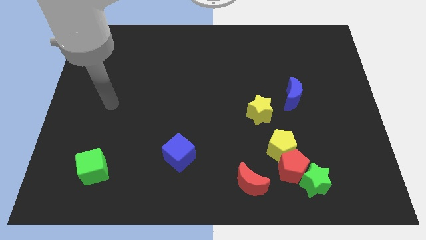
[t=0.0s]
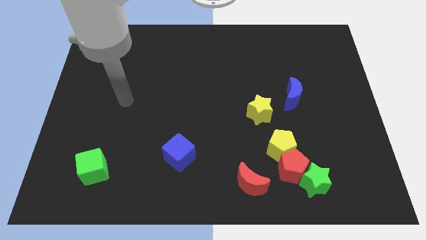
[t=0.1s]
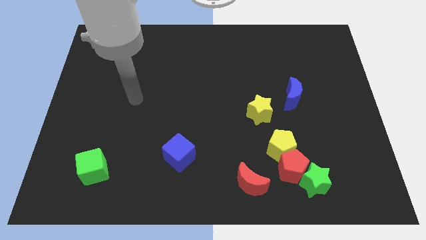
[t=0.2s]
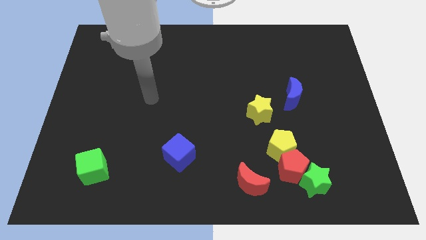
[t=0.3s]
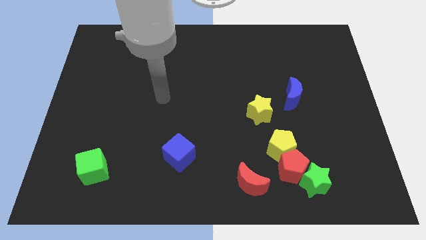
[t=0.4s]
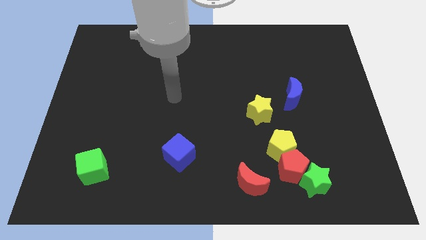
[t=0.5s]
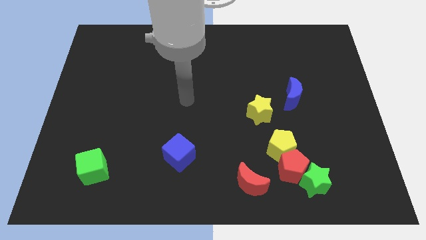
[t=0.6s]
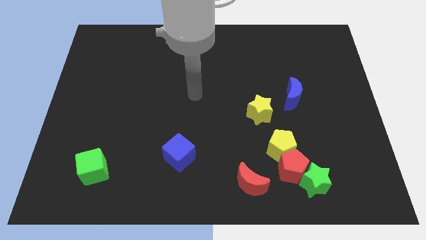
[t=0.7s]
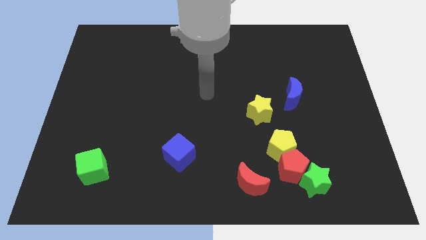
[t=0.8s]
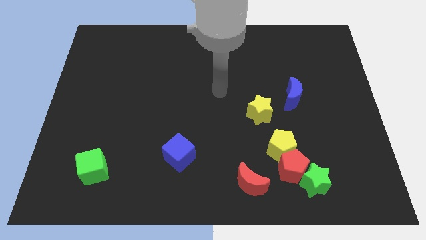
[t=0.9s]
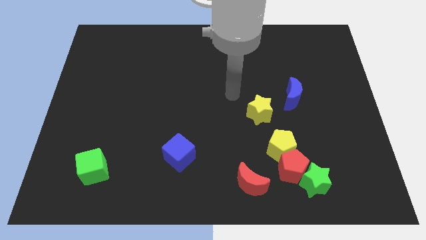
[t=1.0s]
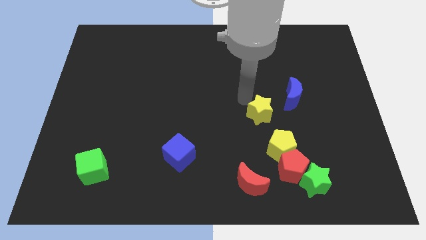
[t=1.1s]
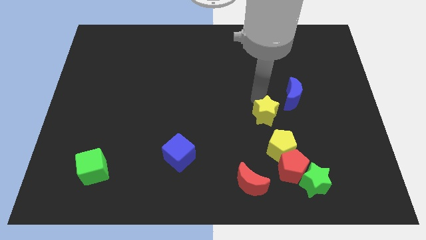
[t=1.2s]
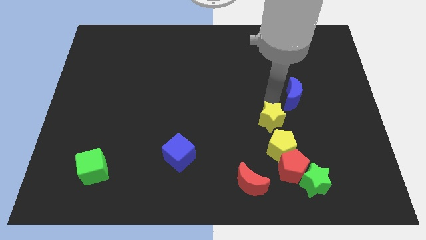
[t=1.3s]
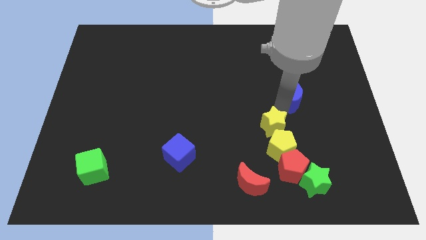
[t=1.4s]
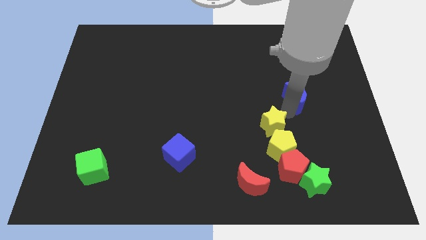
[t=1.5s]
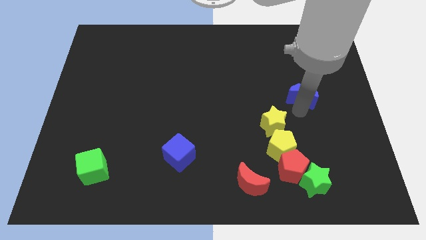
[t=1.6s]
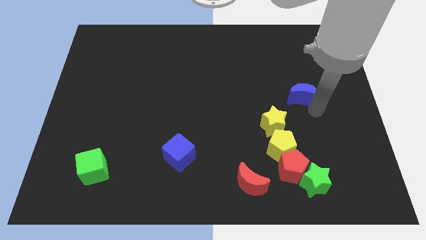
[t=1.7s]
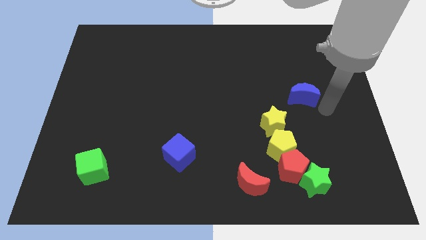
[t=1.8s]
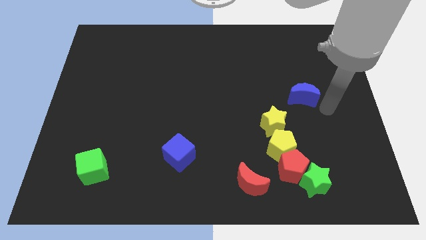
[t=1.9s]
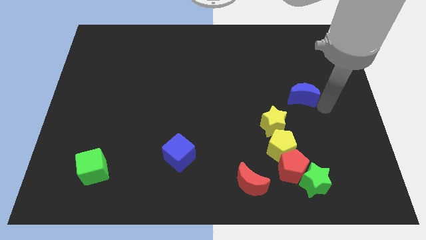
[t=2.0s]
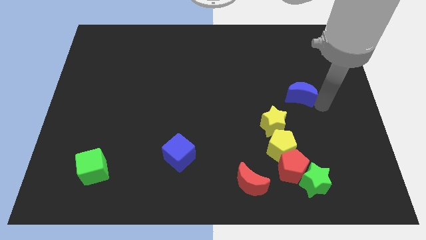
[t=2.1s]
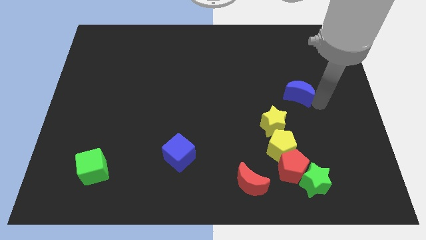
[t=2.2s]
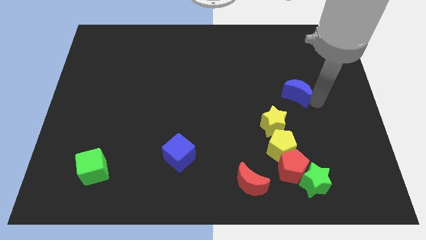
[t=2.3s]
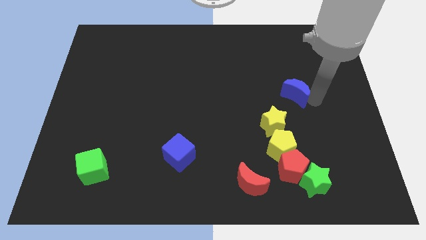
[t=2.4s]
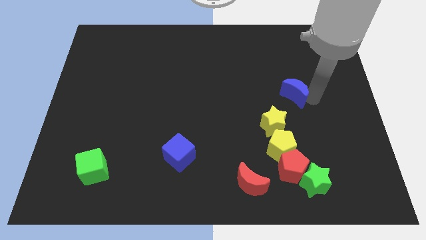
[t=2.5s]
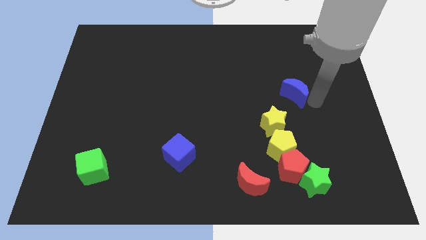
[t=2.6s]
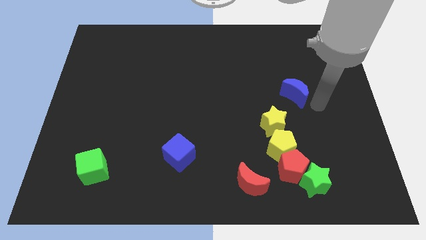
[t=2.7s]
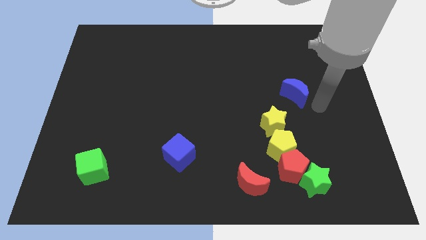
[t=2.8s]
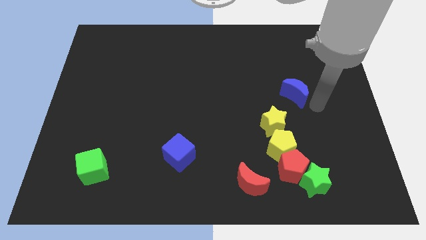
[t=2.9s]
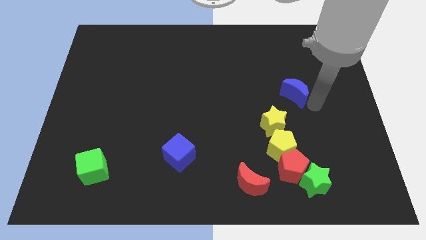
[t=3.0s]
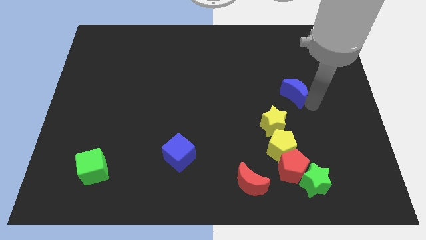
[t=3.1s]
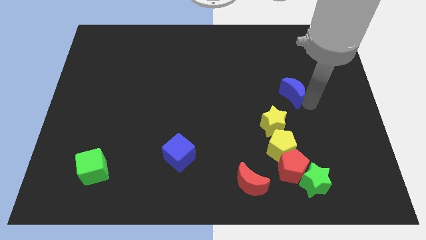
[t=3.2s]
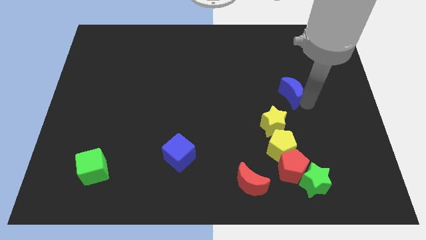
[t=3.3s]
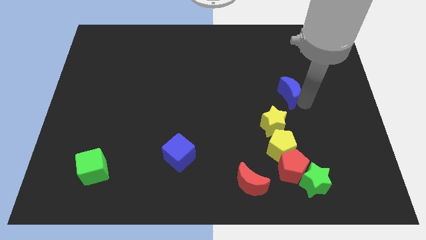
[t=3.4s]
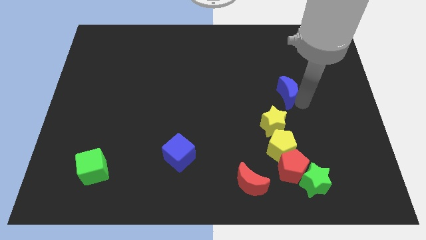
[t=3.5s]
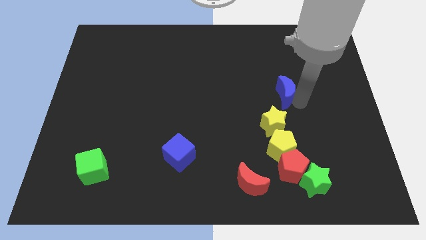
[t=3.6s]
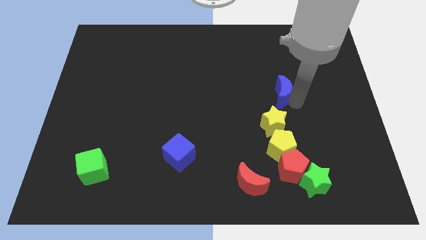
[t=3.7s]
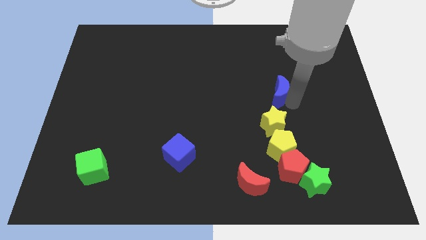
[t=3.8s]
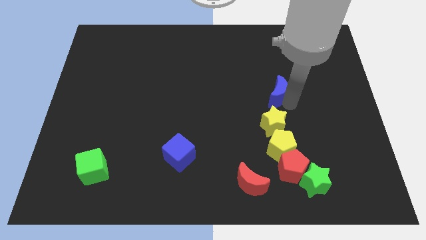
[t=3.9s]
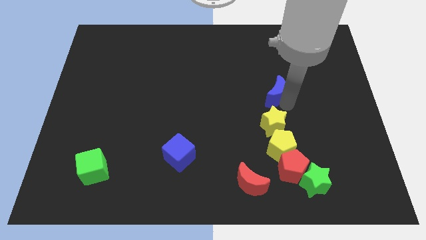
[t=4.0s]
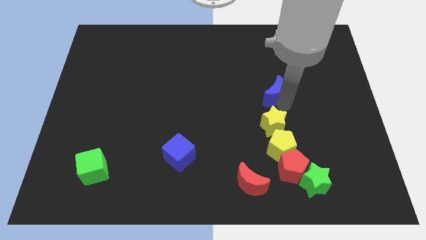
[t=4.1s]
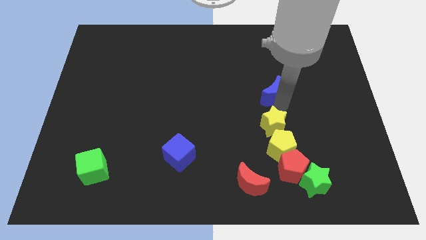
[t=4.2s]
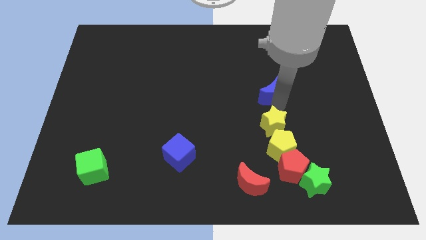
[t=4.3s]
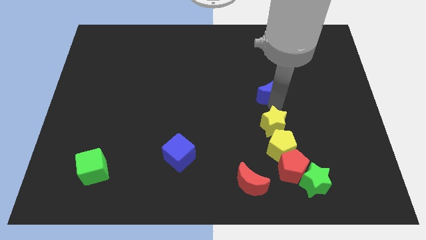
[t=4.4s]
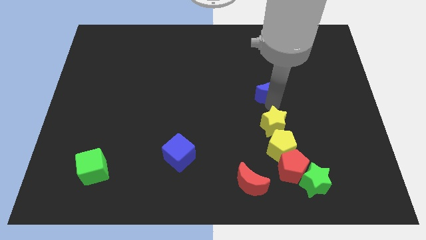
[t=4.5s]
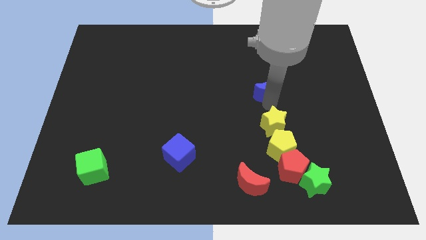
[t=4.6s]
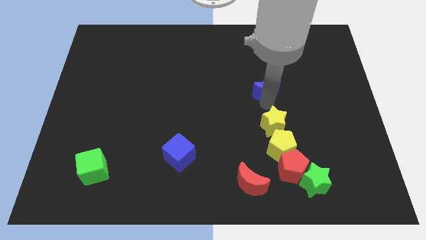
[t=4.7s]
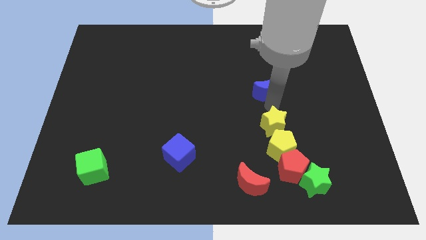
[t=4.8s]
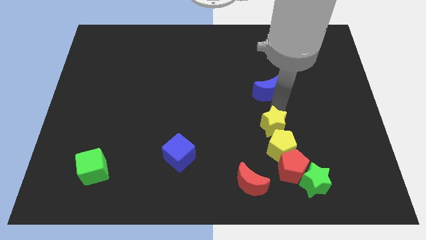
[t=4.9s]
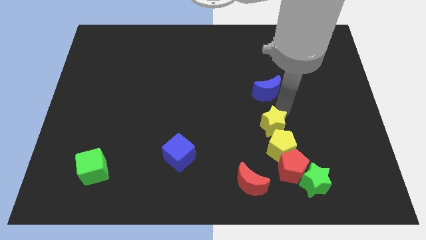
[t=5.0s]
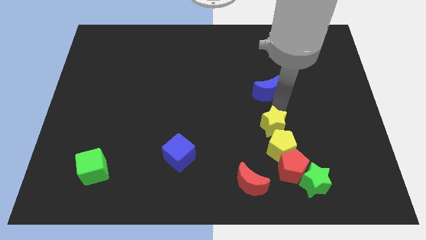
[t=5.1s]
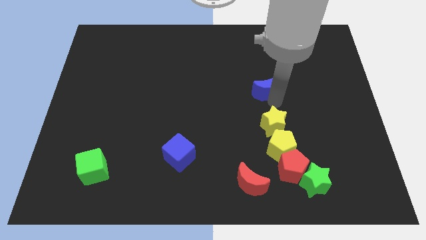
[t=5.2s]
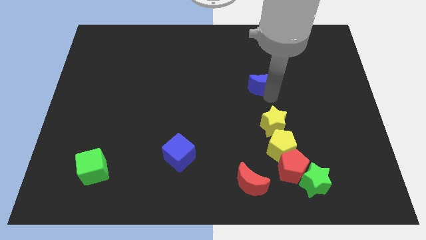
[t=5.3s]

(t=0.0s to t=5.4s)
push the blue moon slightly up and then left

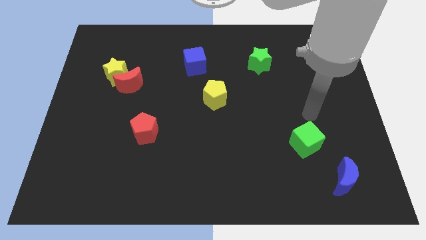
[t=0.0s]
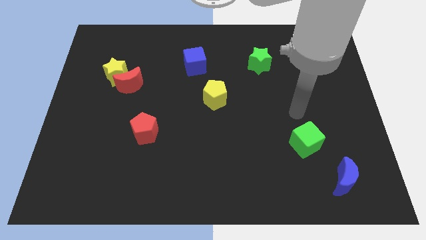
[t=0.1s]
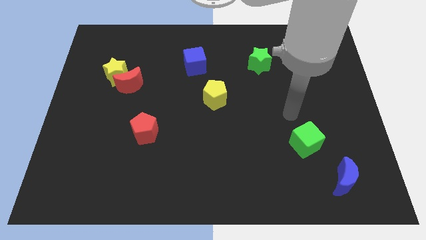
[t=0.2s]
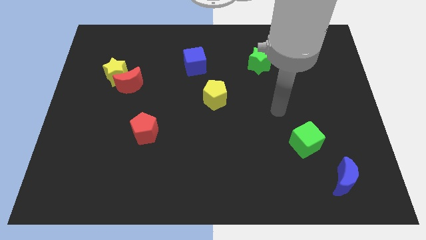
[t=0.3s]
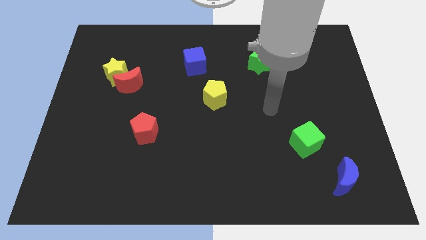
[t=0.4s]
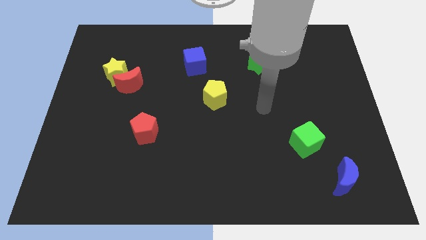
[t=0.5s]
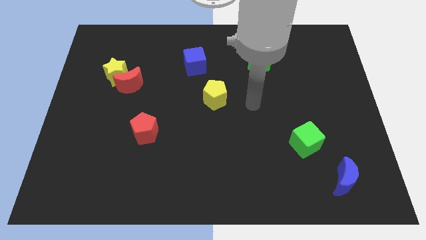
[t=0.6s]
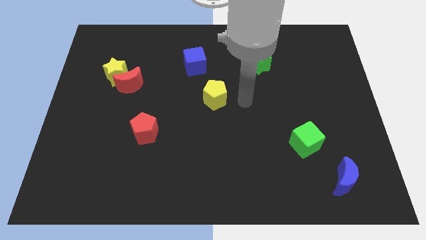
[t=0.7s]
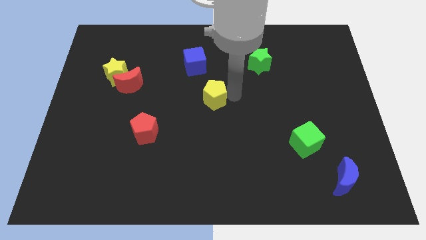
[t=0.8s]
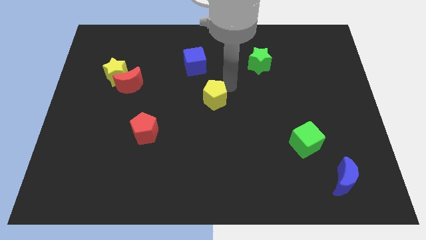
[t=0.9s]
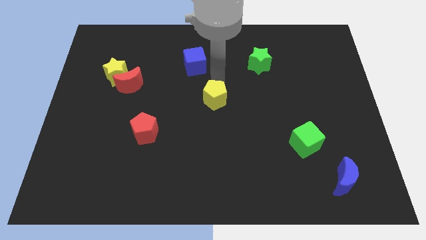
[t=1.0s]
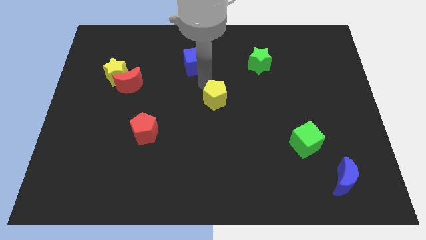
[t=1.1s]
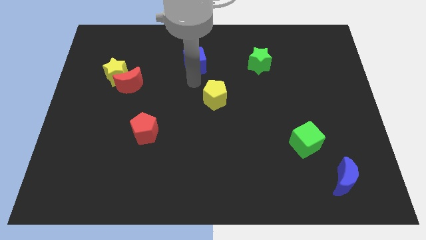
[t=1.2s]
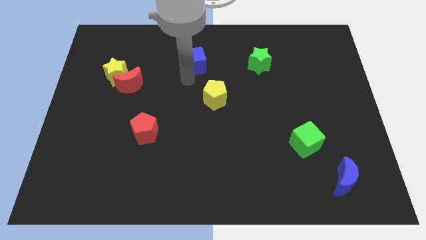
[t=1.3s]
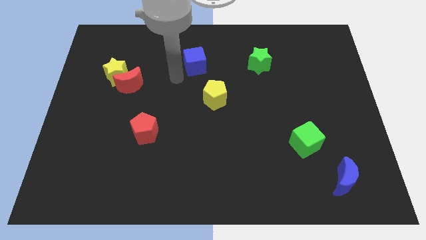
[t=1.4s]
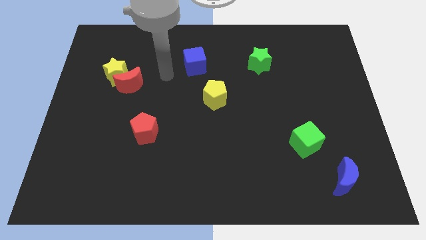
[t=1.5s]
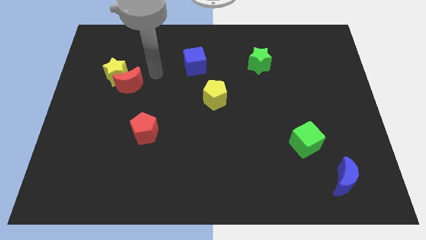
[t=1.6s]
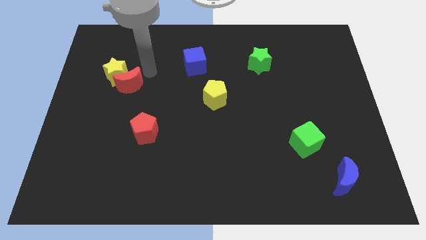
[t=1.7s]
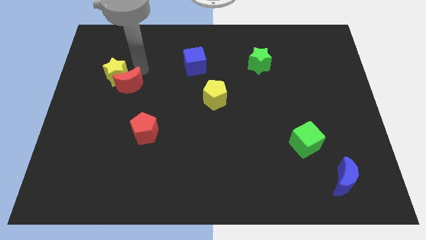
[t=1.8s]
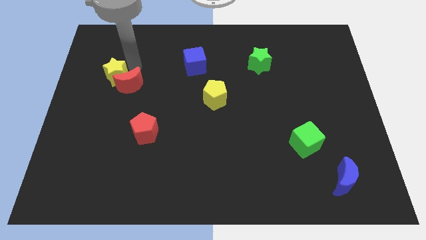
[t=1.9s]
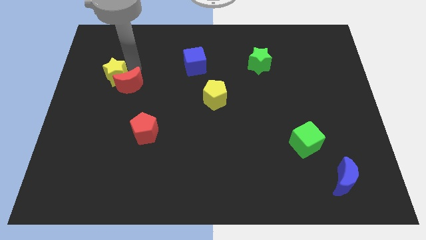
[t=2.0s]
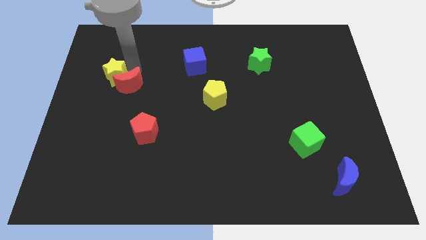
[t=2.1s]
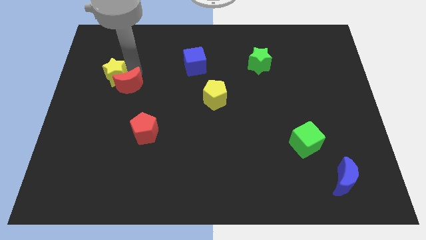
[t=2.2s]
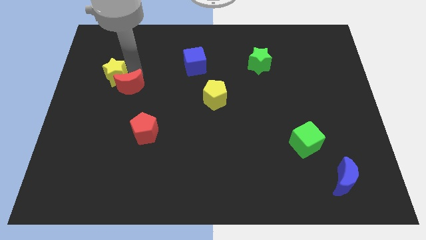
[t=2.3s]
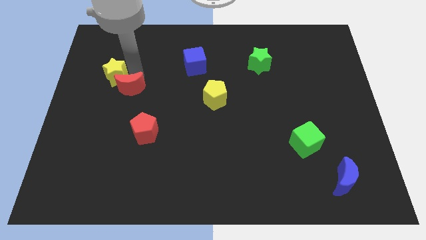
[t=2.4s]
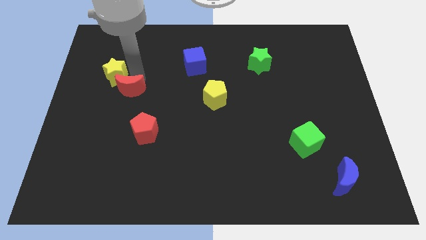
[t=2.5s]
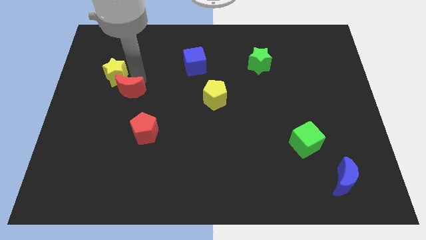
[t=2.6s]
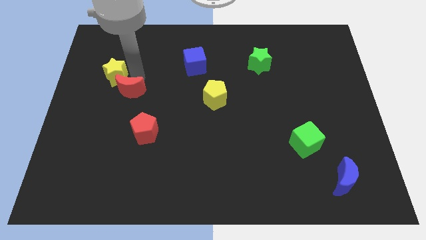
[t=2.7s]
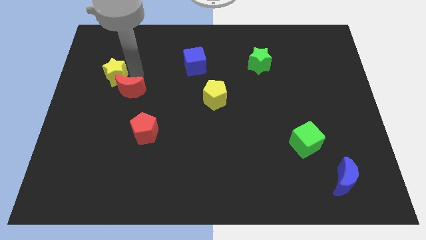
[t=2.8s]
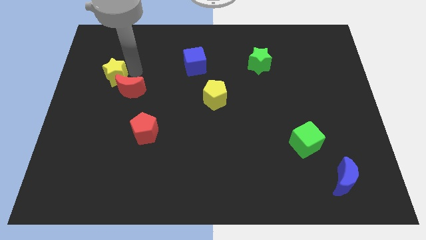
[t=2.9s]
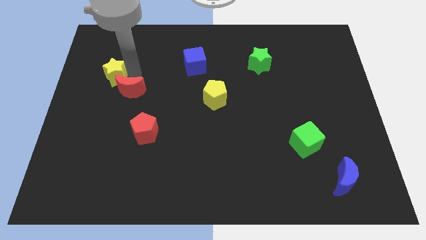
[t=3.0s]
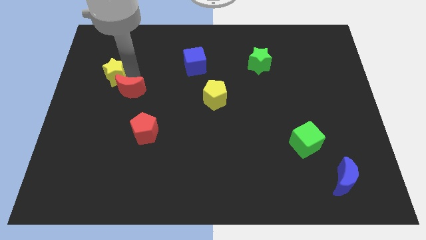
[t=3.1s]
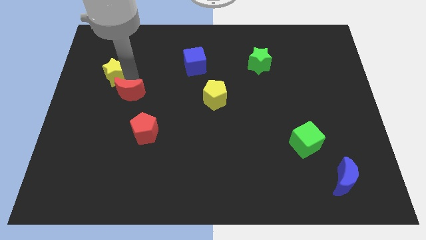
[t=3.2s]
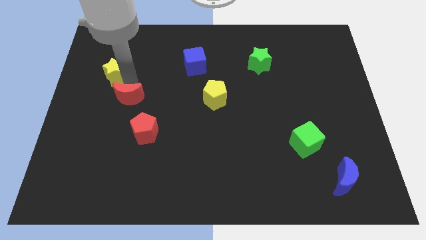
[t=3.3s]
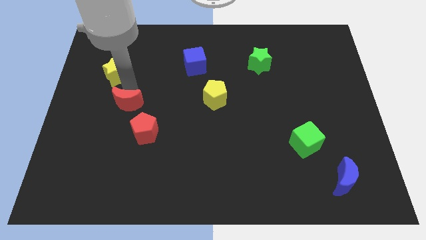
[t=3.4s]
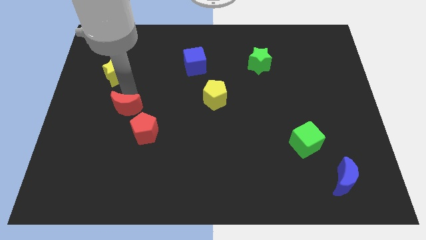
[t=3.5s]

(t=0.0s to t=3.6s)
slide the red moon down a bit
